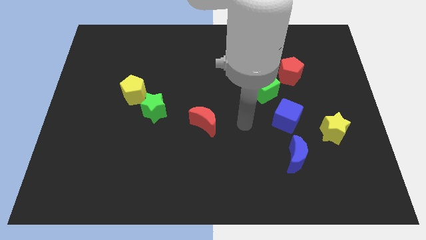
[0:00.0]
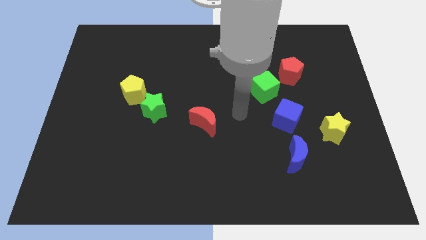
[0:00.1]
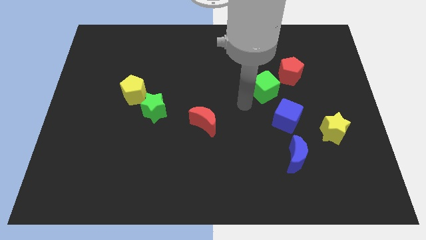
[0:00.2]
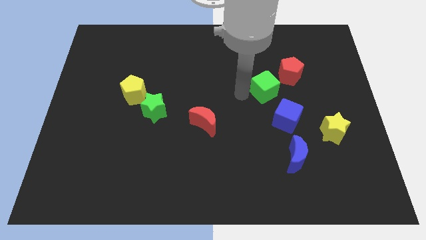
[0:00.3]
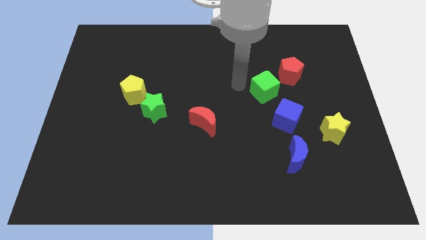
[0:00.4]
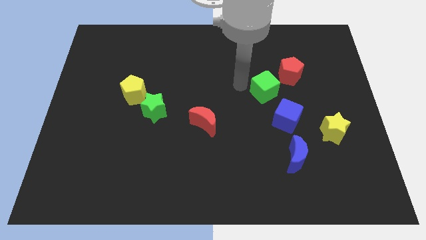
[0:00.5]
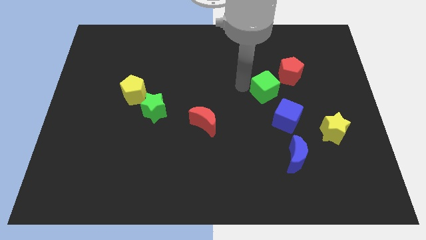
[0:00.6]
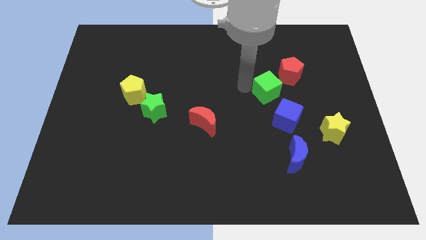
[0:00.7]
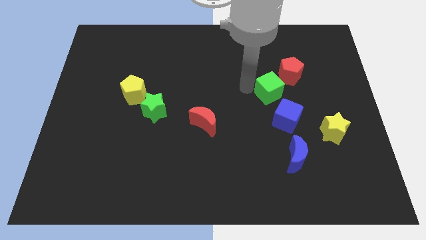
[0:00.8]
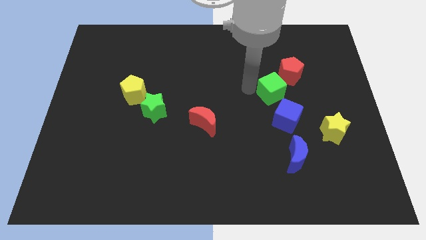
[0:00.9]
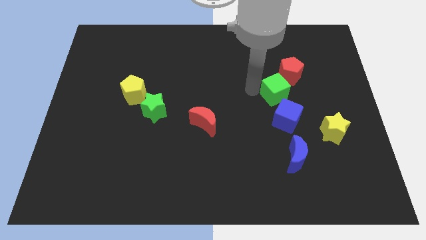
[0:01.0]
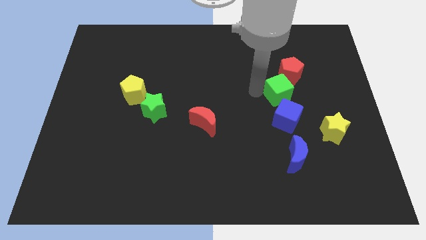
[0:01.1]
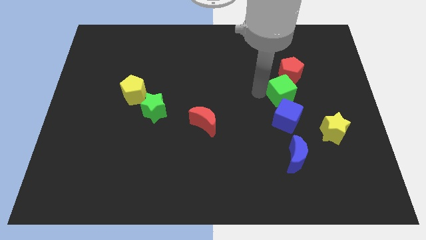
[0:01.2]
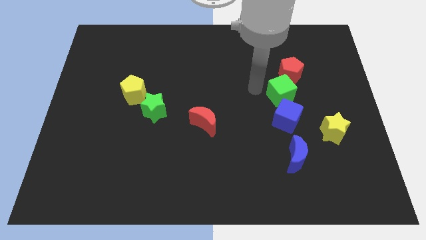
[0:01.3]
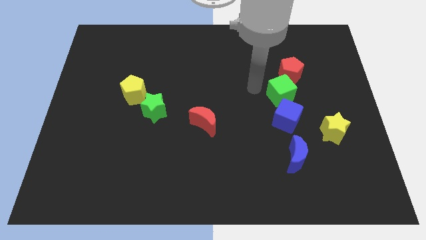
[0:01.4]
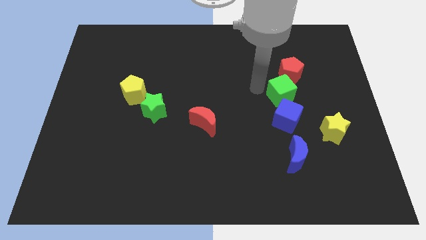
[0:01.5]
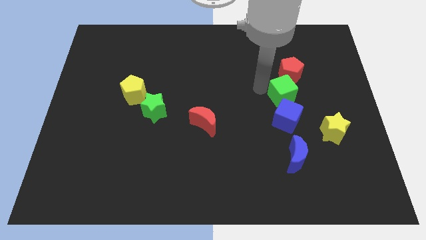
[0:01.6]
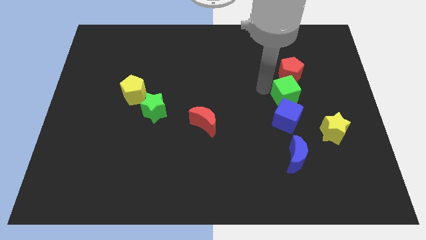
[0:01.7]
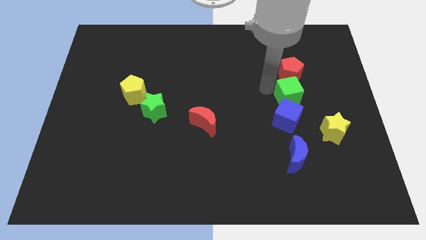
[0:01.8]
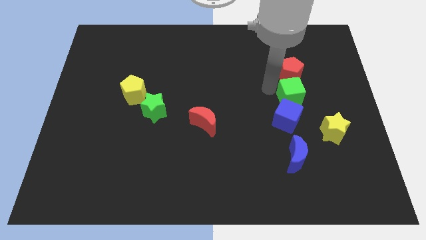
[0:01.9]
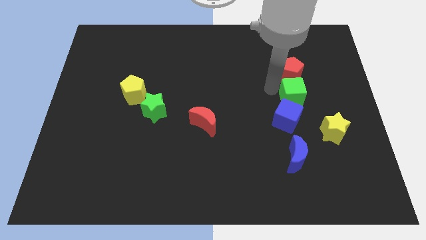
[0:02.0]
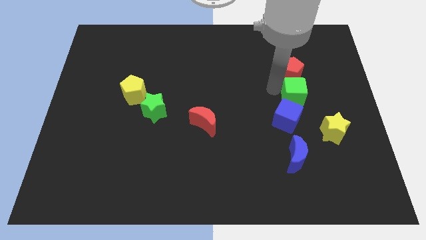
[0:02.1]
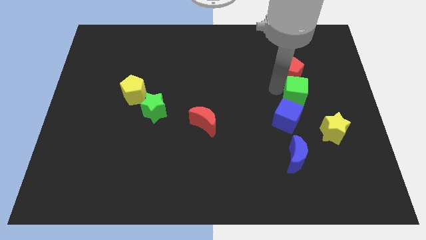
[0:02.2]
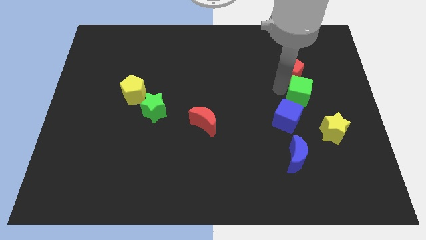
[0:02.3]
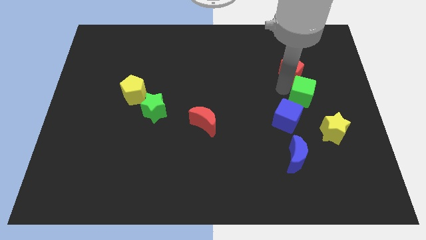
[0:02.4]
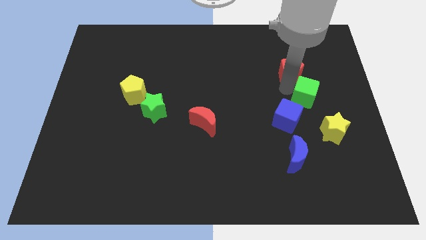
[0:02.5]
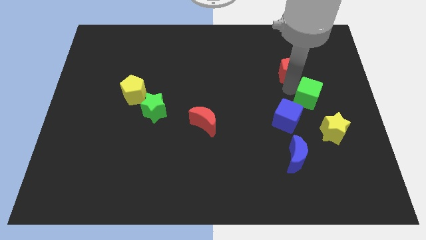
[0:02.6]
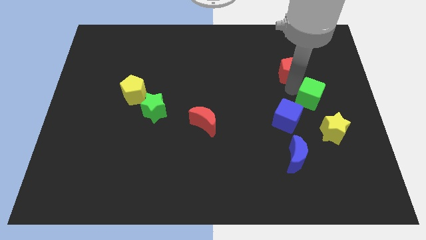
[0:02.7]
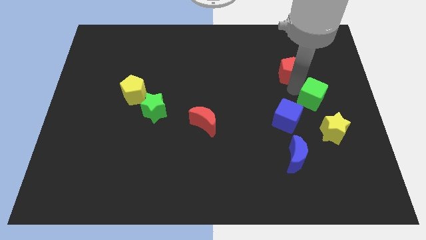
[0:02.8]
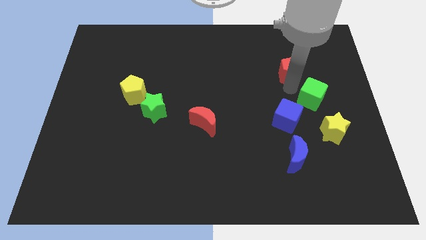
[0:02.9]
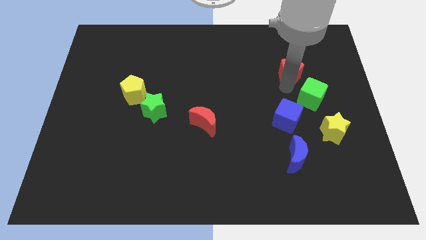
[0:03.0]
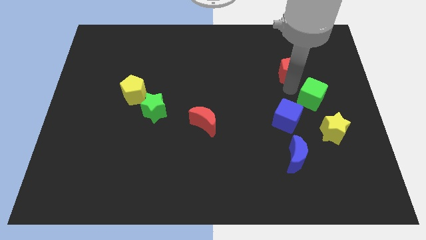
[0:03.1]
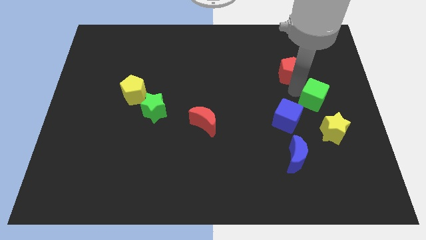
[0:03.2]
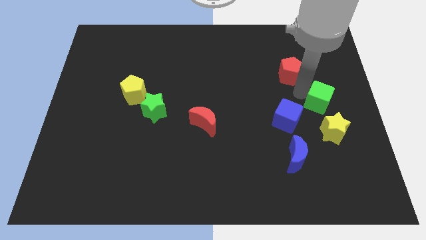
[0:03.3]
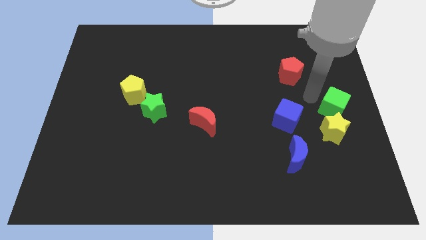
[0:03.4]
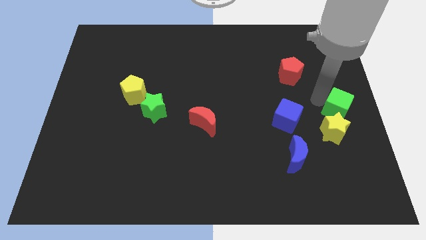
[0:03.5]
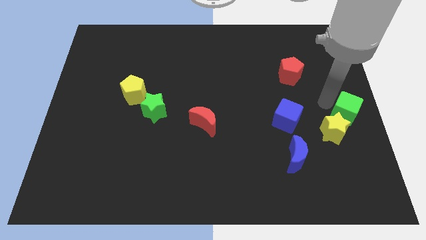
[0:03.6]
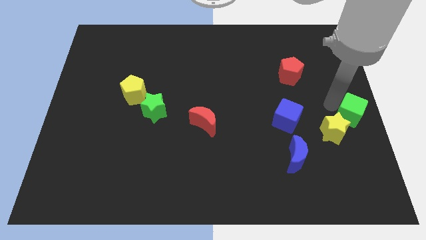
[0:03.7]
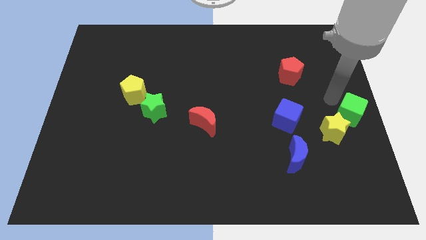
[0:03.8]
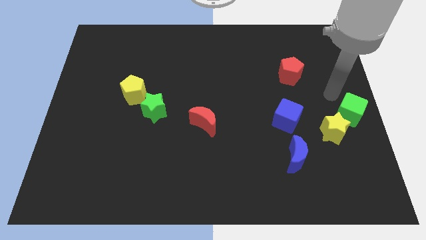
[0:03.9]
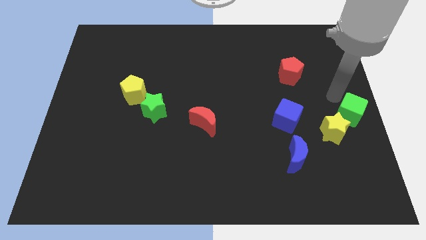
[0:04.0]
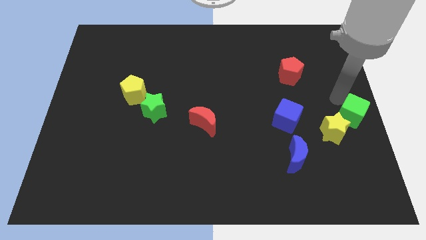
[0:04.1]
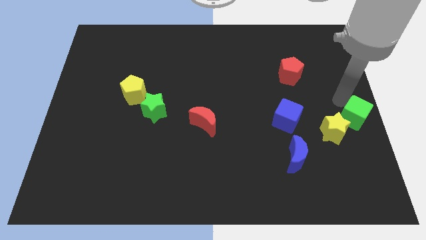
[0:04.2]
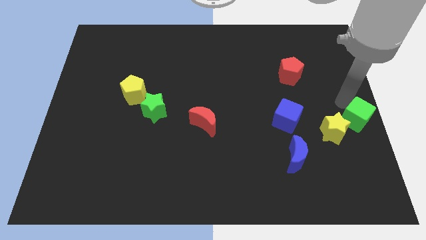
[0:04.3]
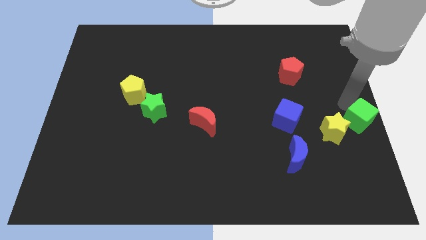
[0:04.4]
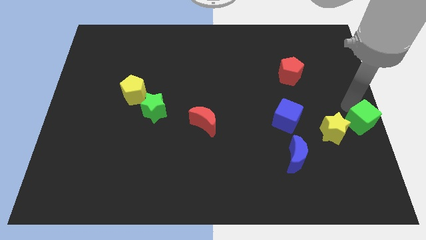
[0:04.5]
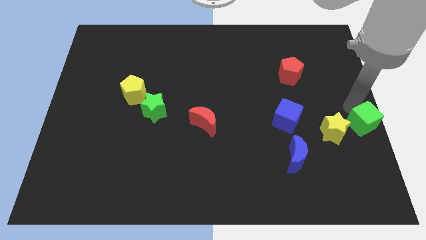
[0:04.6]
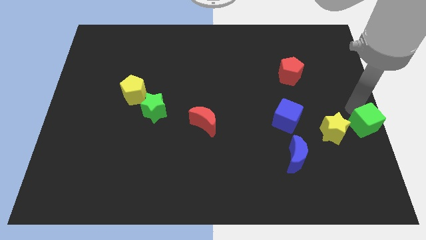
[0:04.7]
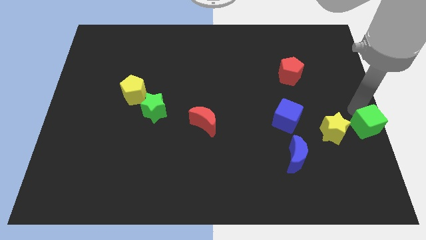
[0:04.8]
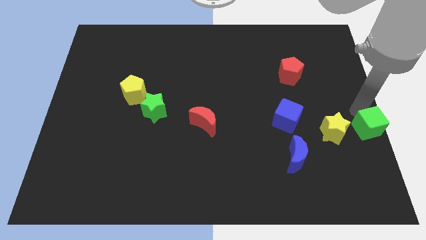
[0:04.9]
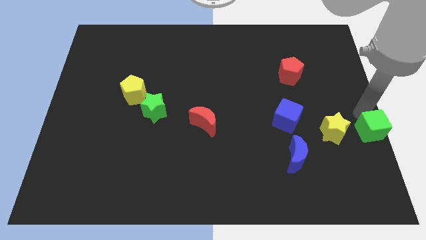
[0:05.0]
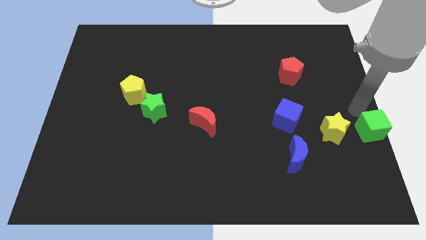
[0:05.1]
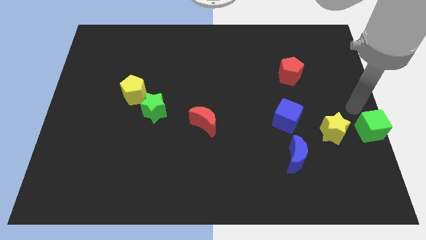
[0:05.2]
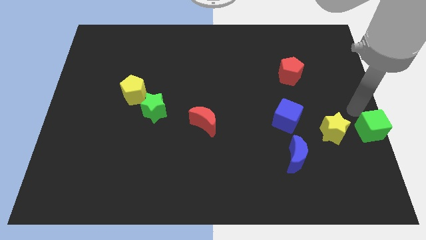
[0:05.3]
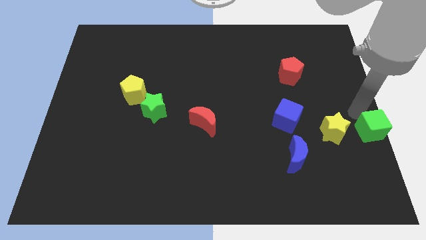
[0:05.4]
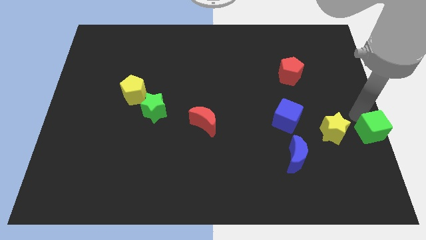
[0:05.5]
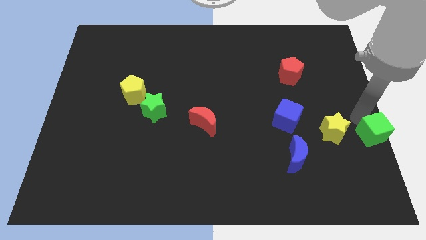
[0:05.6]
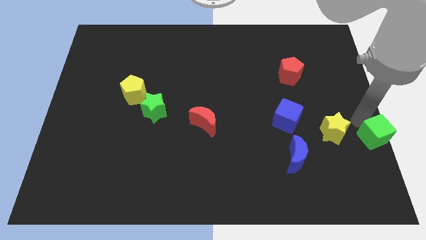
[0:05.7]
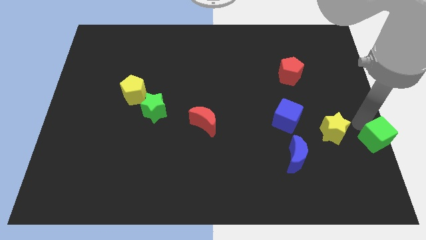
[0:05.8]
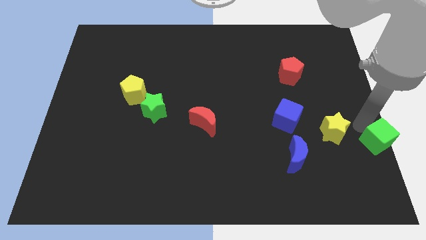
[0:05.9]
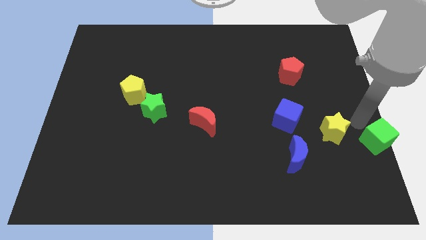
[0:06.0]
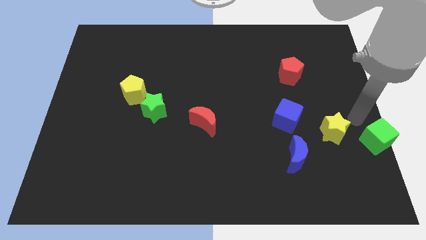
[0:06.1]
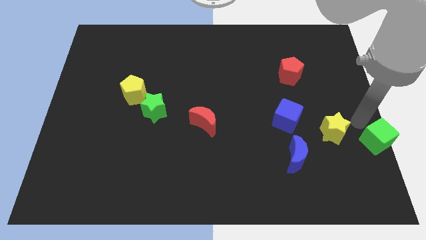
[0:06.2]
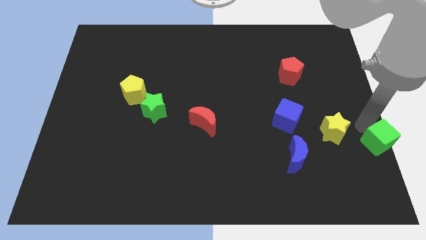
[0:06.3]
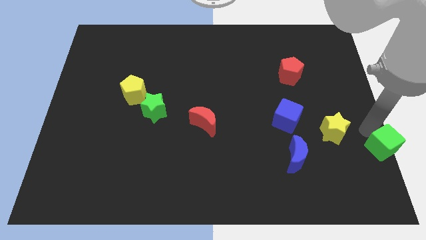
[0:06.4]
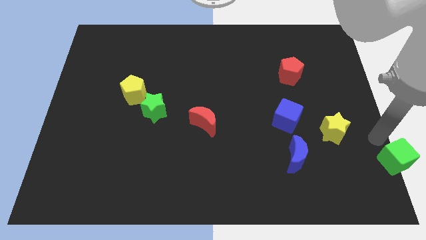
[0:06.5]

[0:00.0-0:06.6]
put the green cube to the bottom right corner
